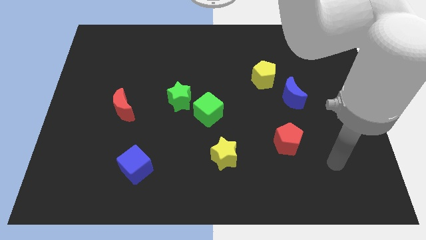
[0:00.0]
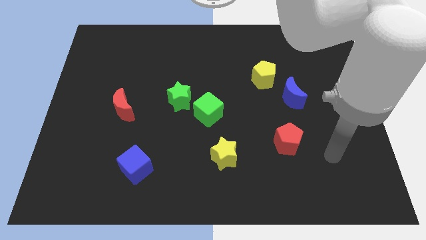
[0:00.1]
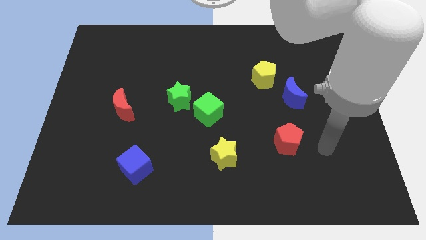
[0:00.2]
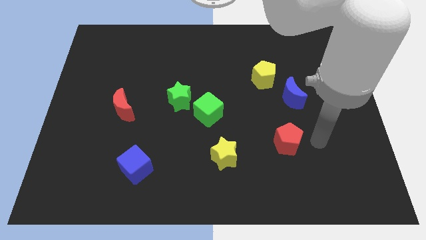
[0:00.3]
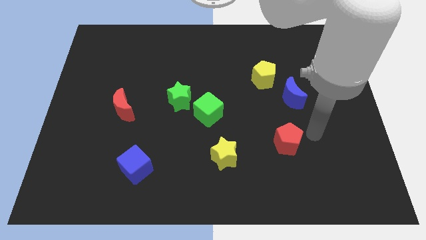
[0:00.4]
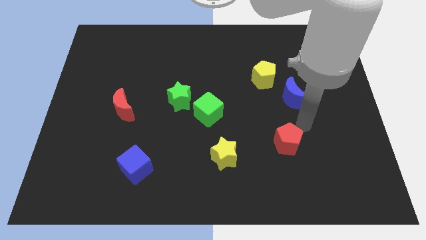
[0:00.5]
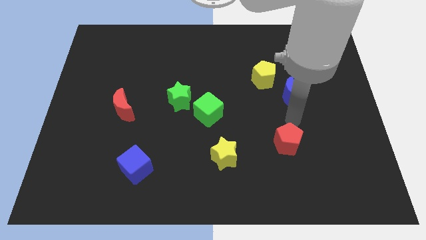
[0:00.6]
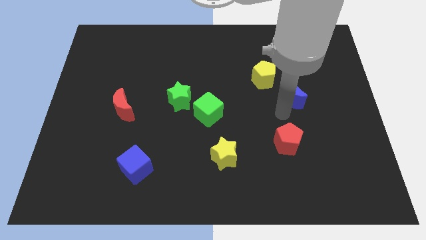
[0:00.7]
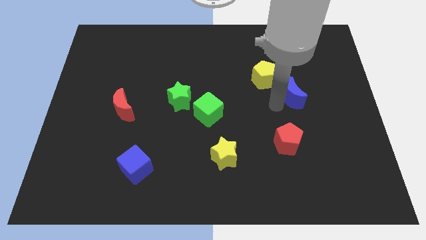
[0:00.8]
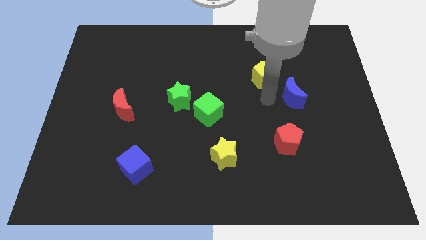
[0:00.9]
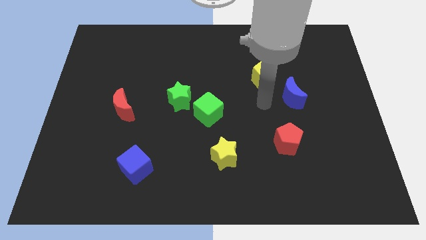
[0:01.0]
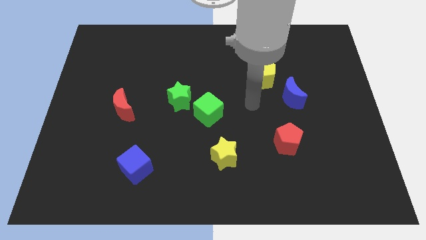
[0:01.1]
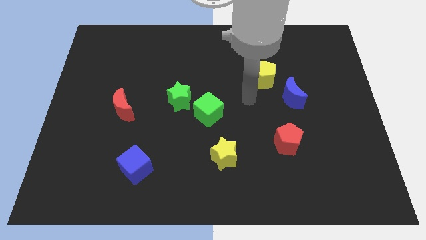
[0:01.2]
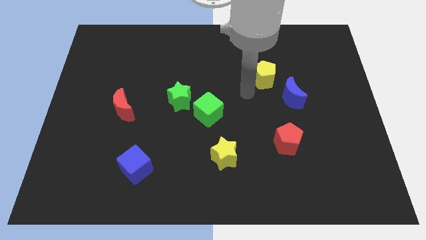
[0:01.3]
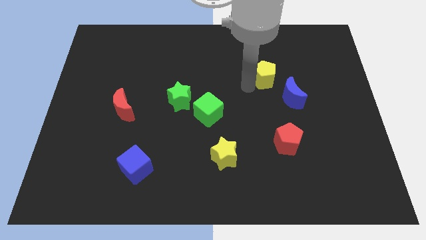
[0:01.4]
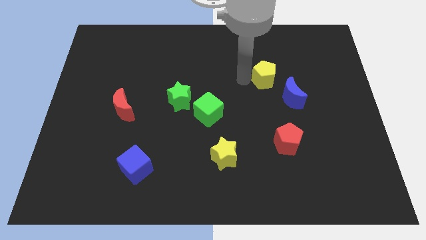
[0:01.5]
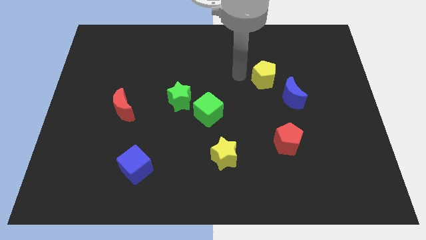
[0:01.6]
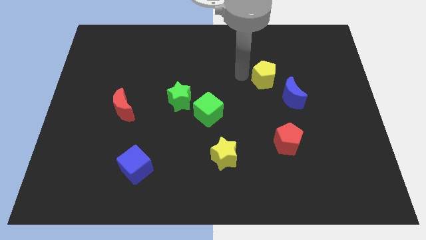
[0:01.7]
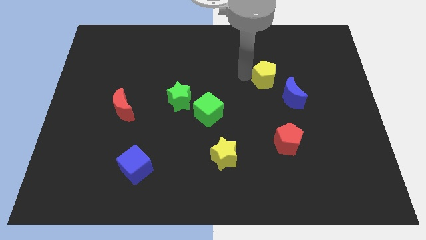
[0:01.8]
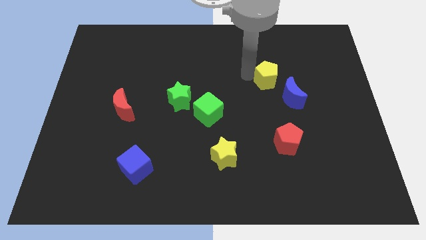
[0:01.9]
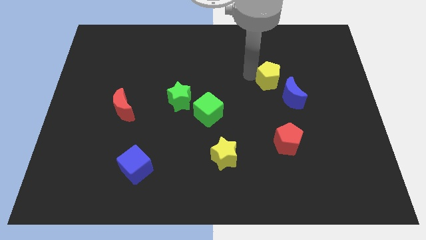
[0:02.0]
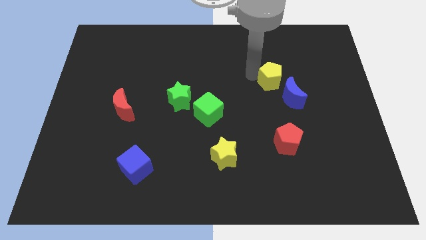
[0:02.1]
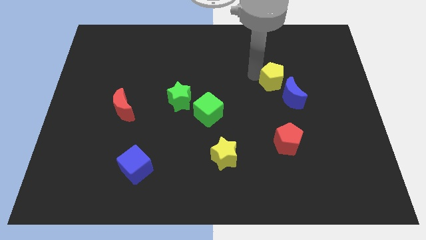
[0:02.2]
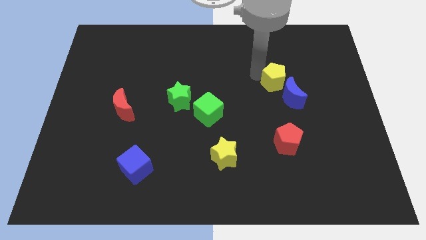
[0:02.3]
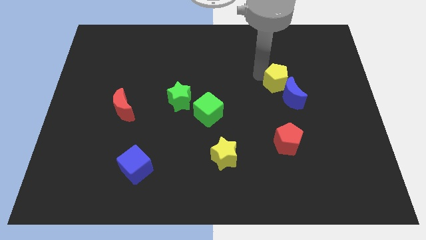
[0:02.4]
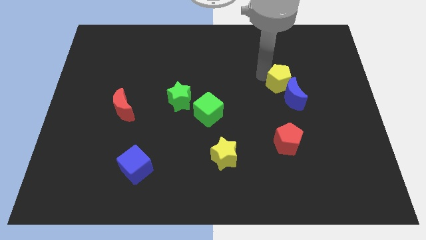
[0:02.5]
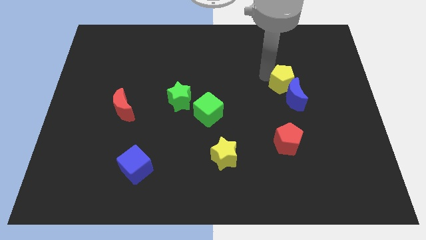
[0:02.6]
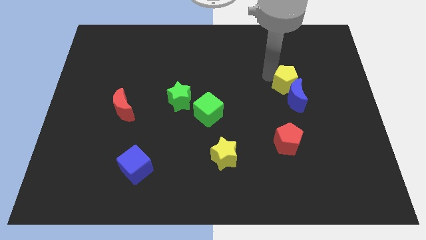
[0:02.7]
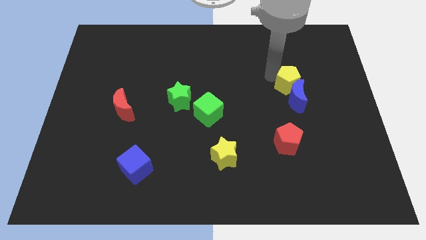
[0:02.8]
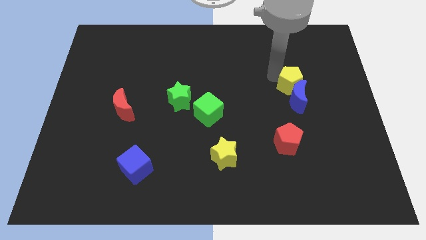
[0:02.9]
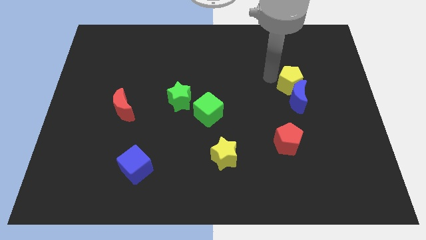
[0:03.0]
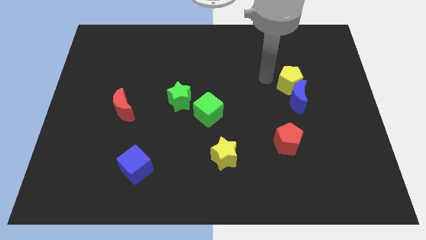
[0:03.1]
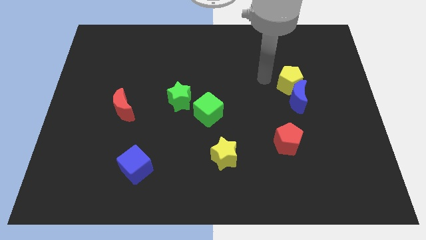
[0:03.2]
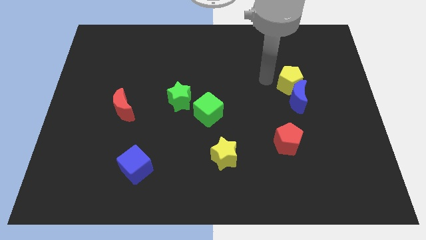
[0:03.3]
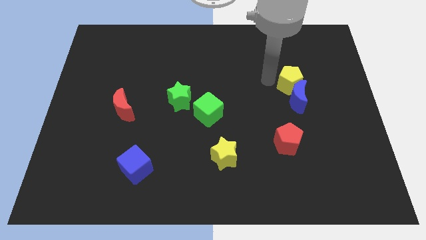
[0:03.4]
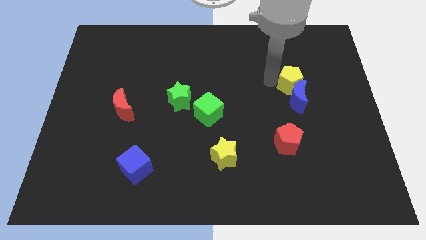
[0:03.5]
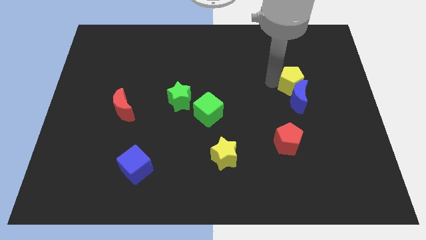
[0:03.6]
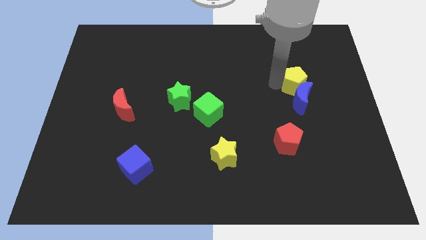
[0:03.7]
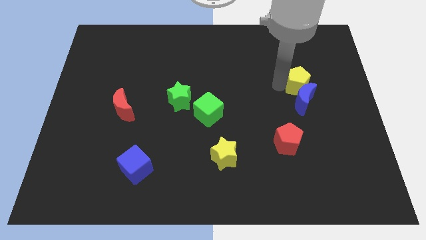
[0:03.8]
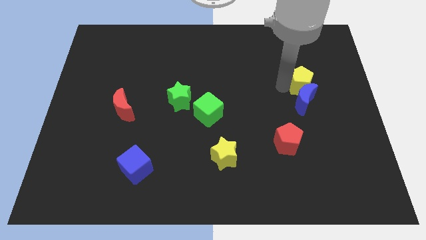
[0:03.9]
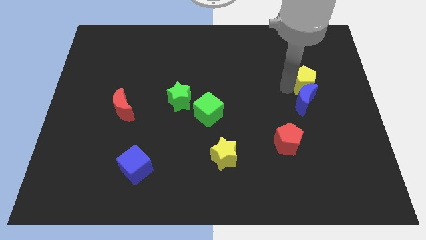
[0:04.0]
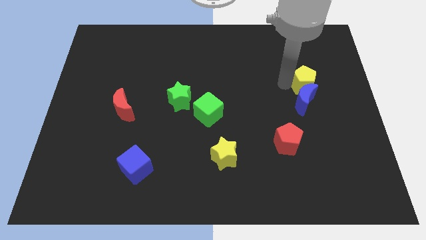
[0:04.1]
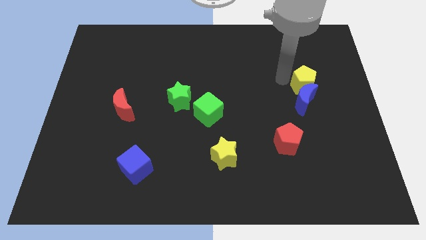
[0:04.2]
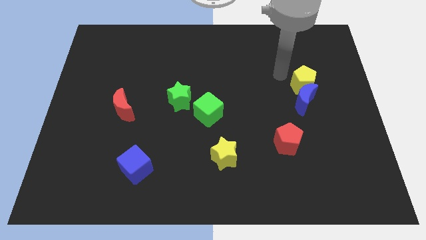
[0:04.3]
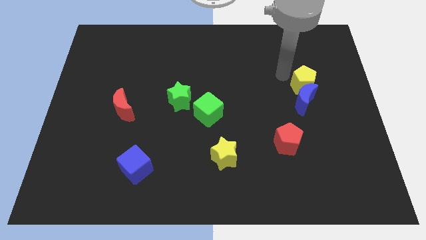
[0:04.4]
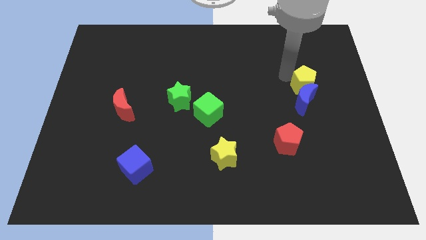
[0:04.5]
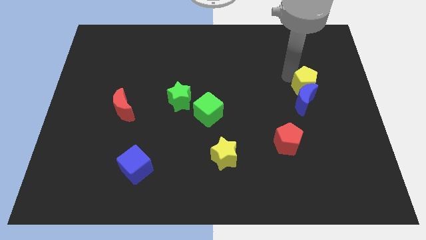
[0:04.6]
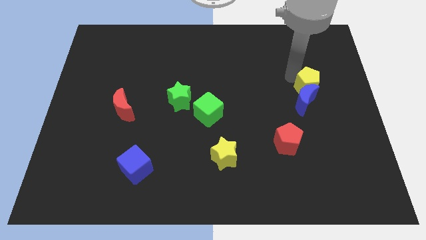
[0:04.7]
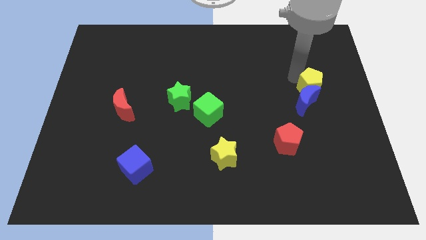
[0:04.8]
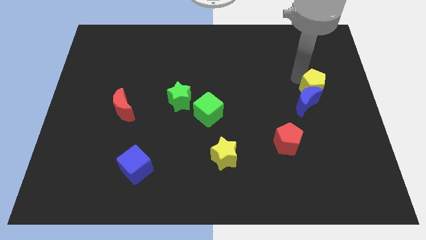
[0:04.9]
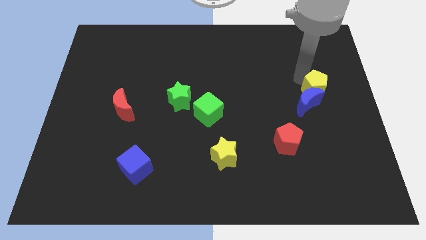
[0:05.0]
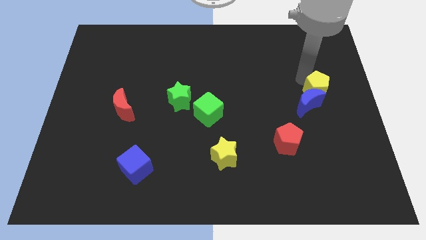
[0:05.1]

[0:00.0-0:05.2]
move the yellow pentagon to the right side

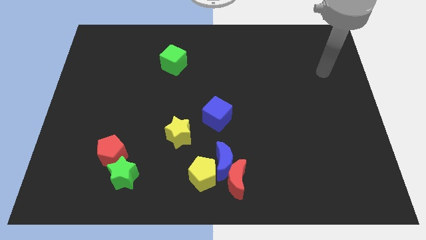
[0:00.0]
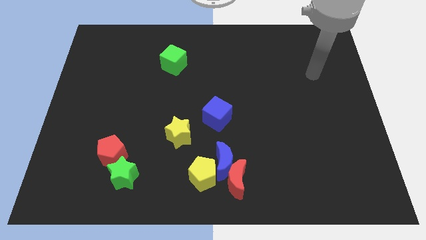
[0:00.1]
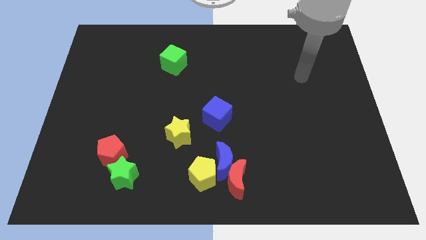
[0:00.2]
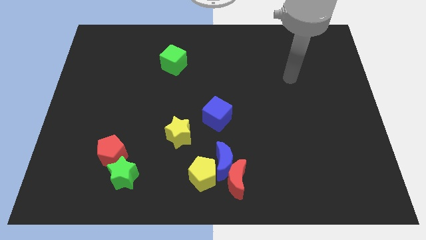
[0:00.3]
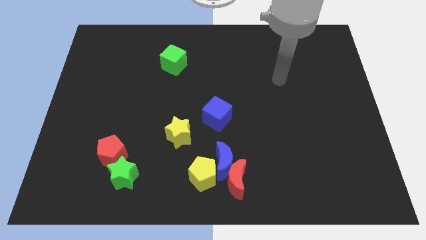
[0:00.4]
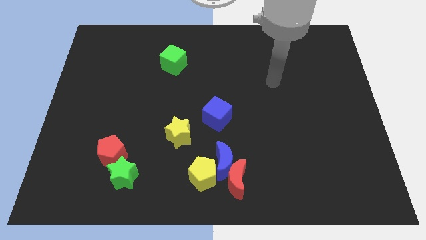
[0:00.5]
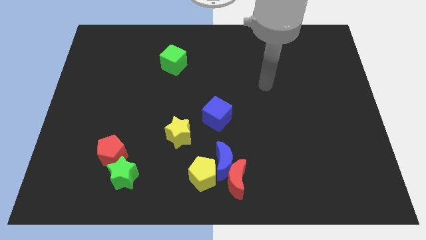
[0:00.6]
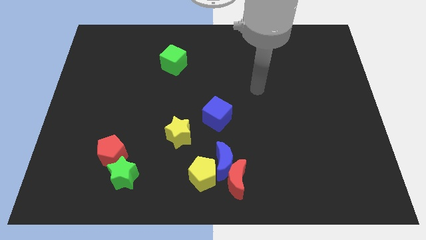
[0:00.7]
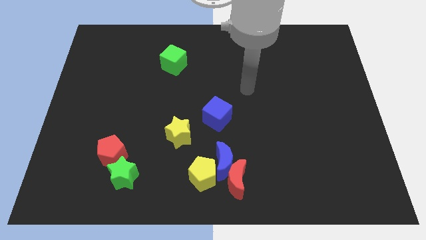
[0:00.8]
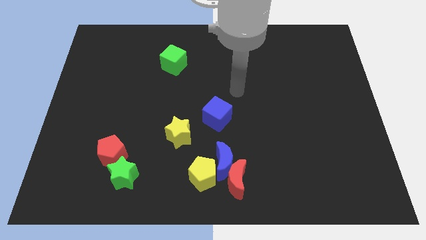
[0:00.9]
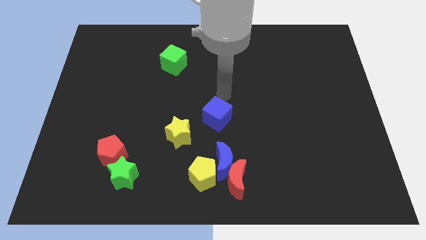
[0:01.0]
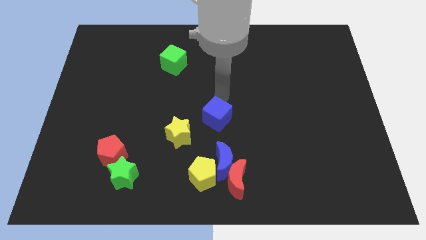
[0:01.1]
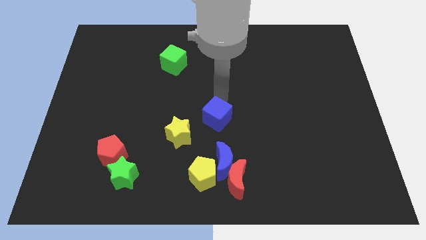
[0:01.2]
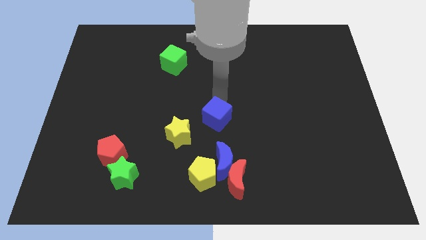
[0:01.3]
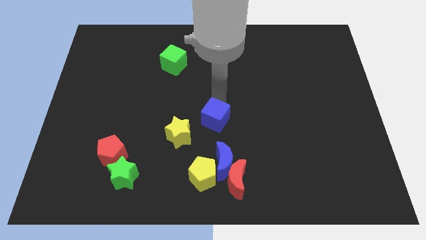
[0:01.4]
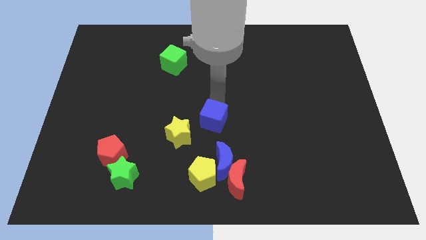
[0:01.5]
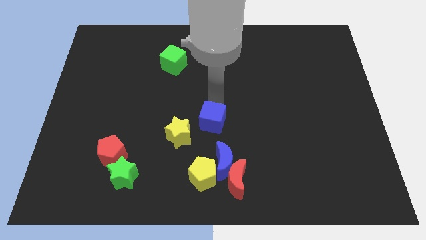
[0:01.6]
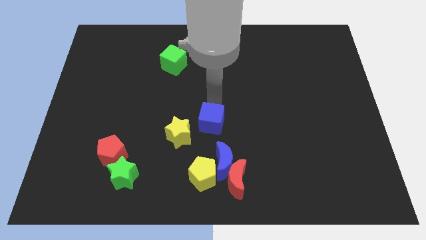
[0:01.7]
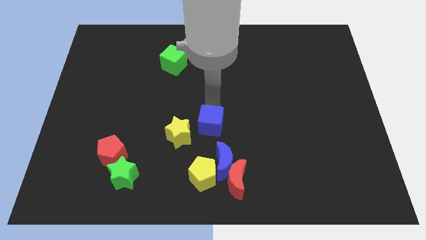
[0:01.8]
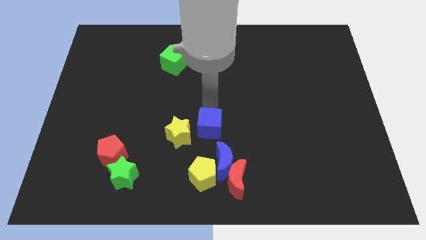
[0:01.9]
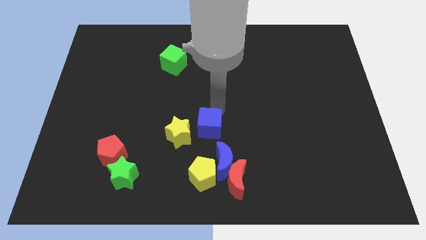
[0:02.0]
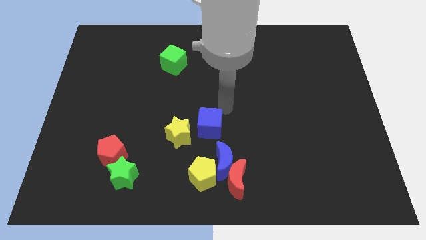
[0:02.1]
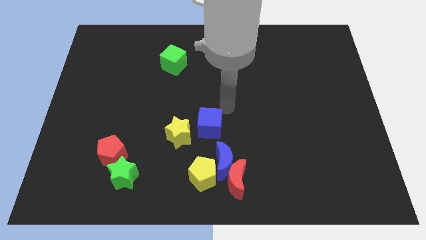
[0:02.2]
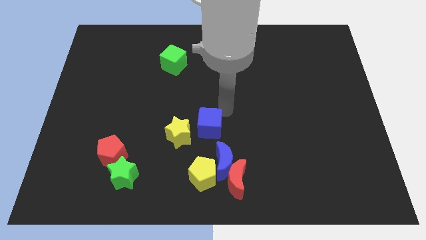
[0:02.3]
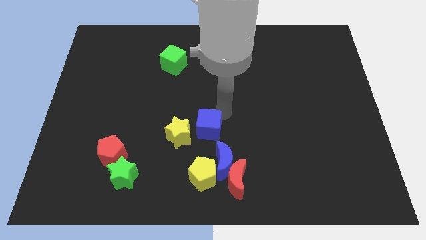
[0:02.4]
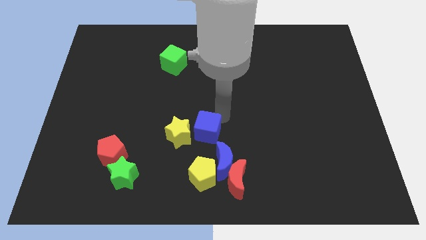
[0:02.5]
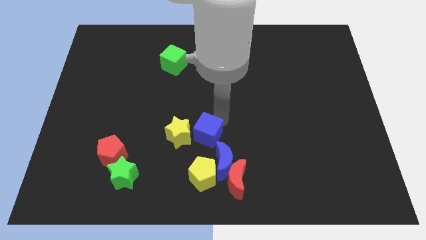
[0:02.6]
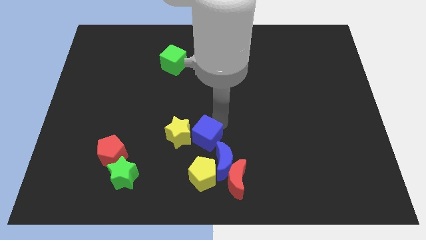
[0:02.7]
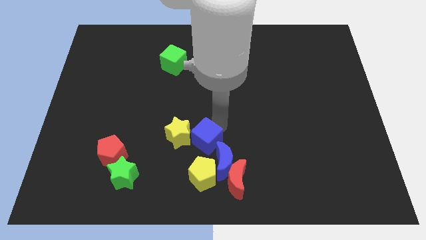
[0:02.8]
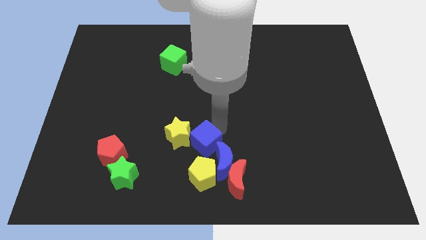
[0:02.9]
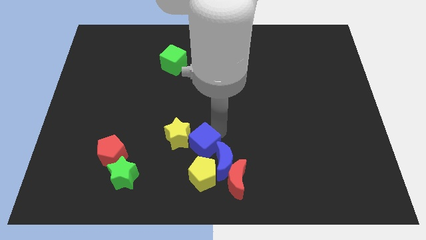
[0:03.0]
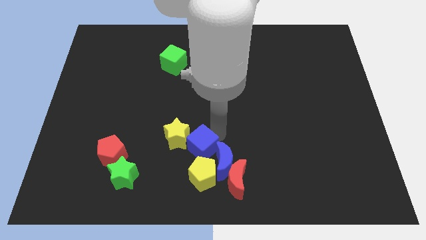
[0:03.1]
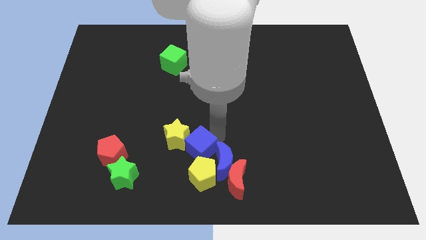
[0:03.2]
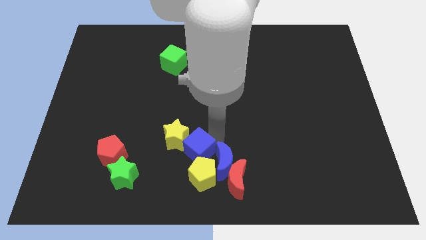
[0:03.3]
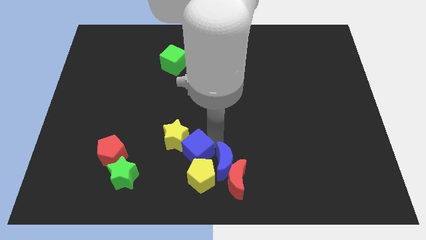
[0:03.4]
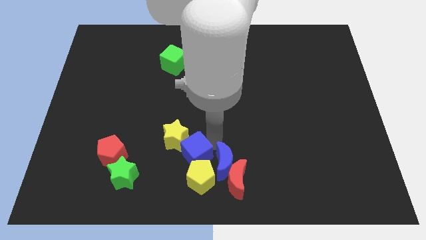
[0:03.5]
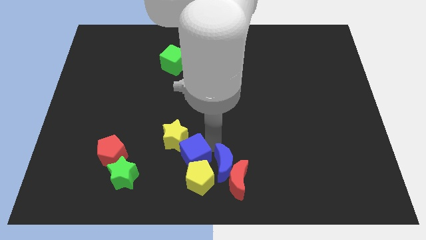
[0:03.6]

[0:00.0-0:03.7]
move the blue cube to the bottom side
